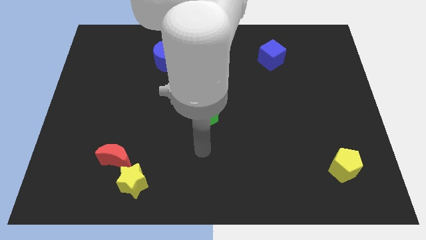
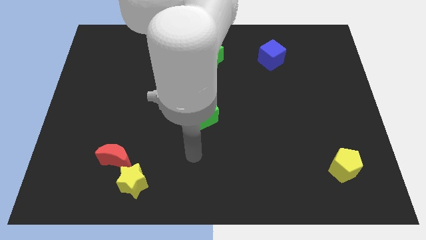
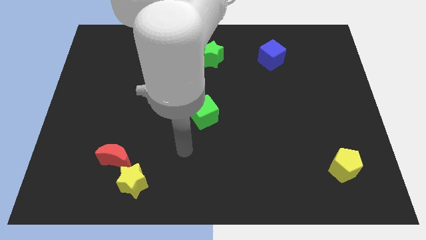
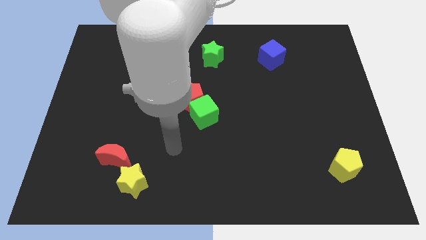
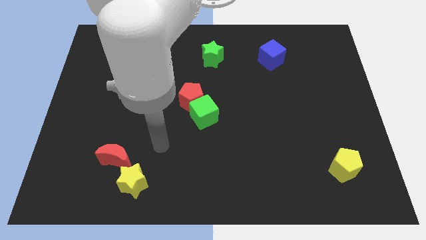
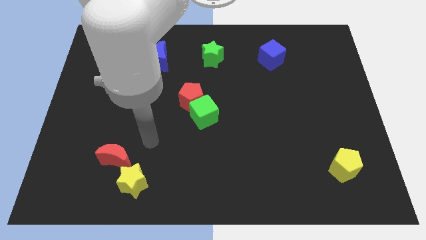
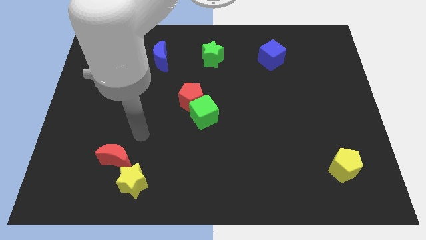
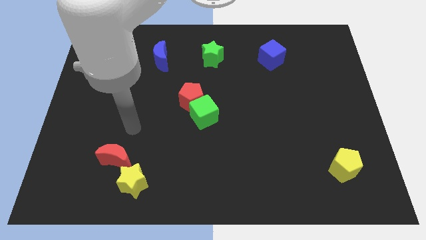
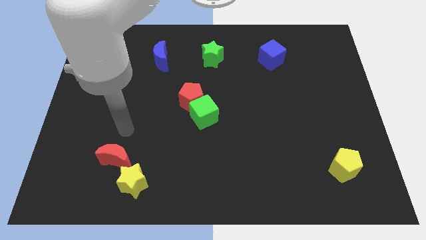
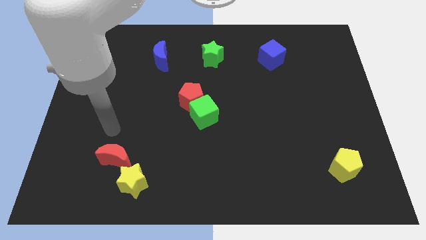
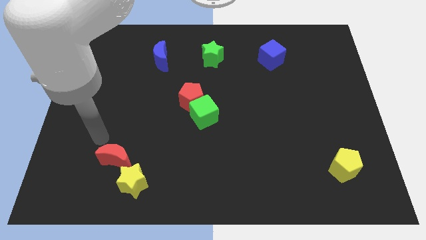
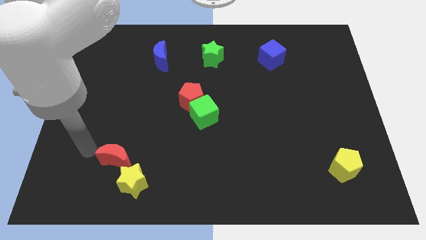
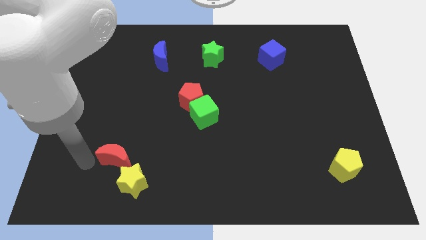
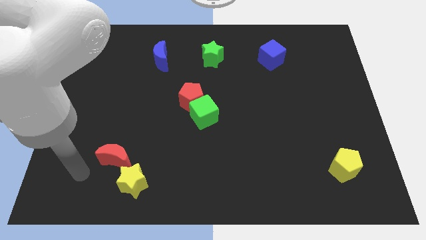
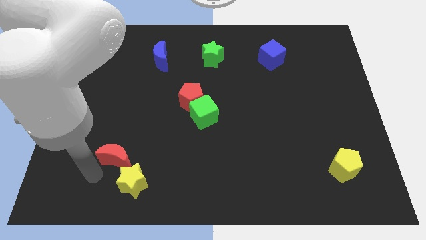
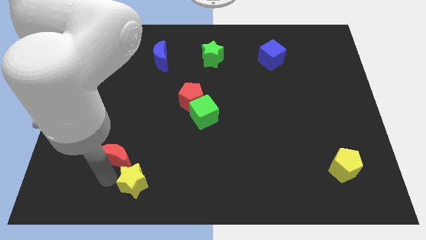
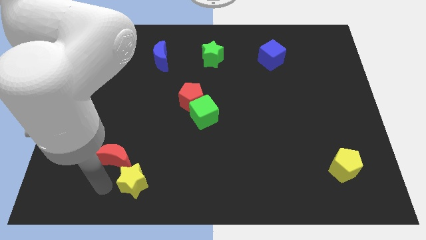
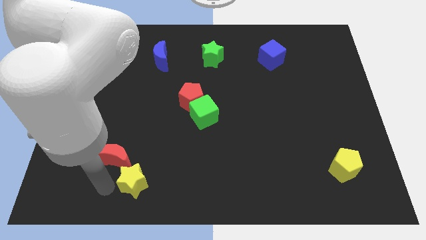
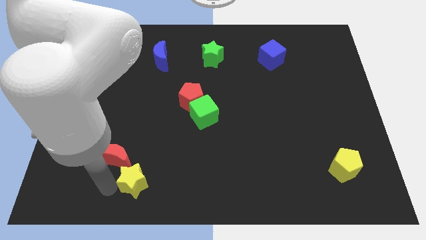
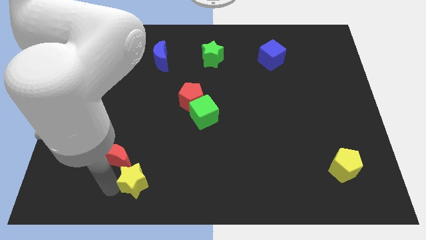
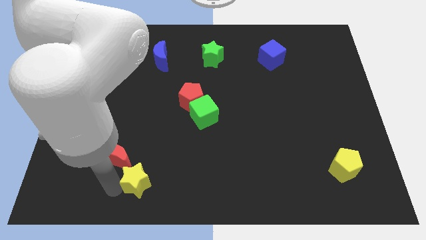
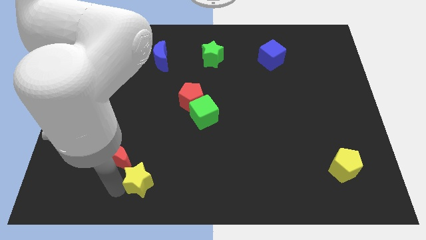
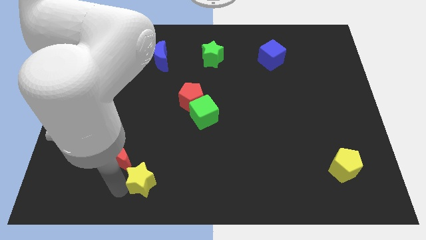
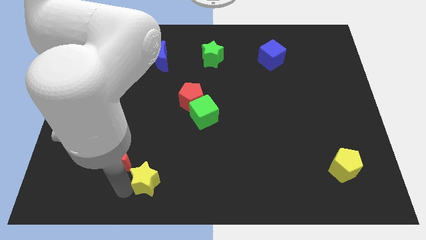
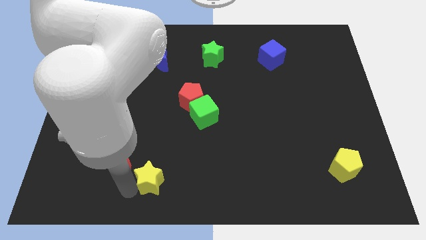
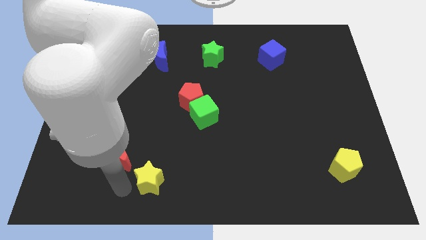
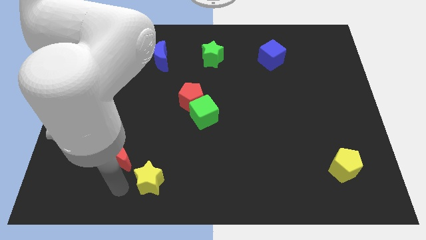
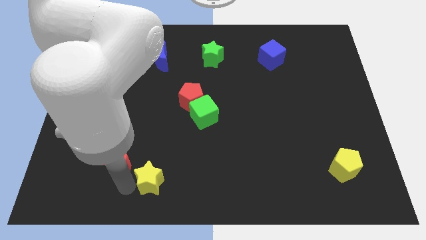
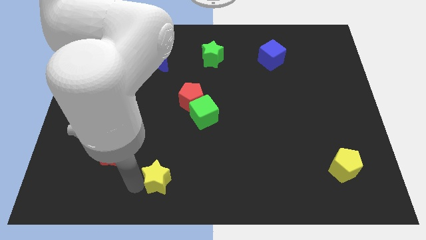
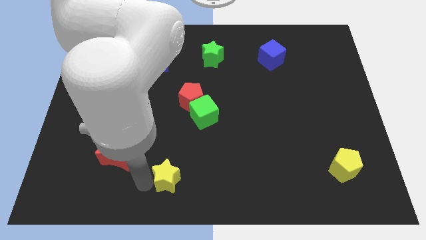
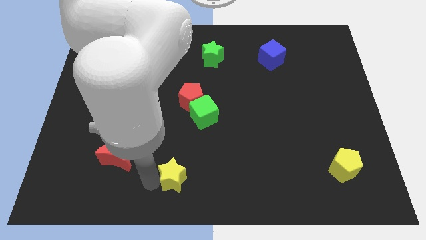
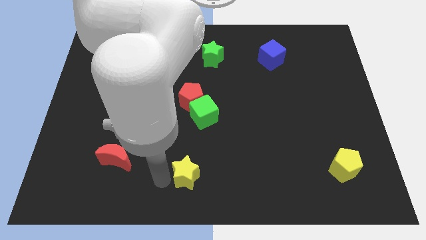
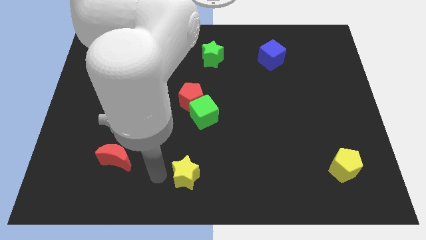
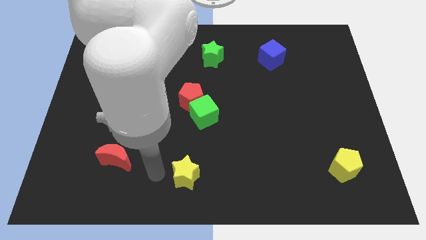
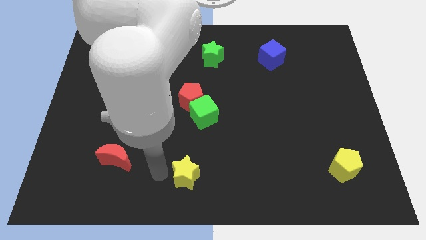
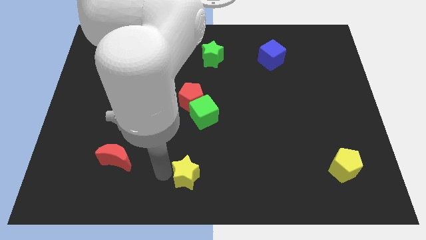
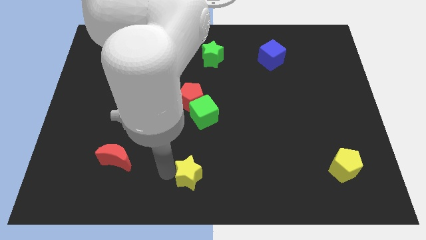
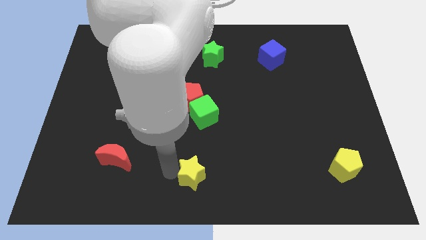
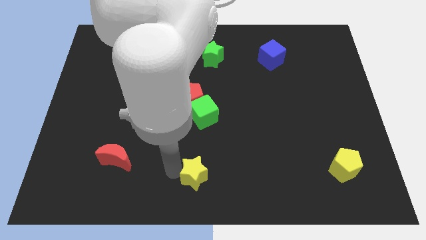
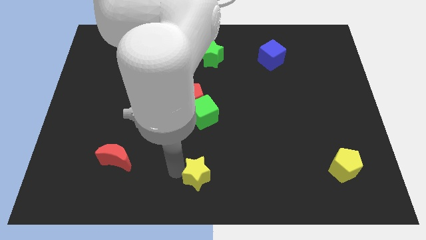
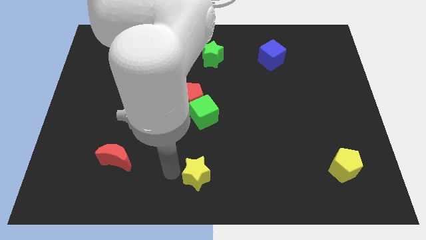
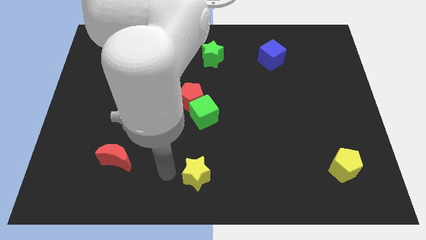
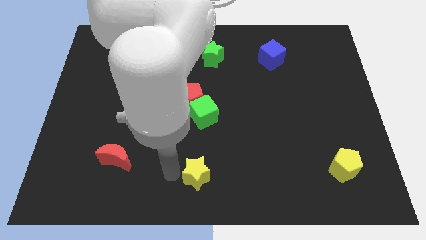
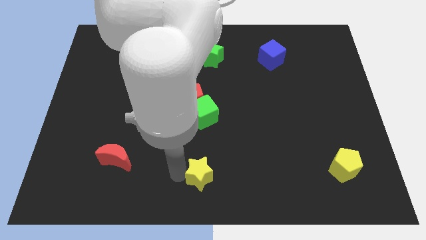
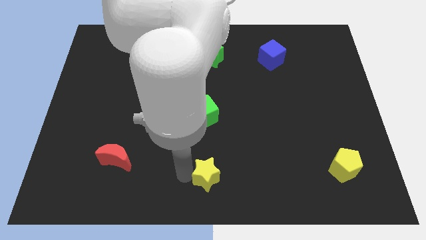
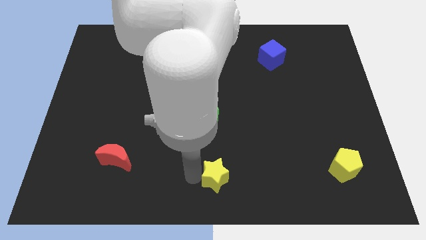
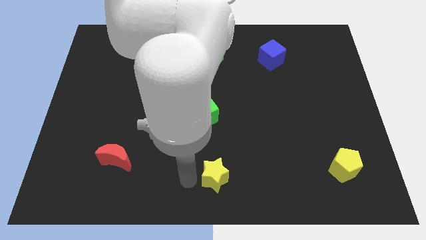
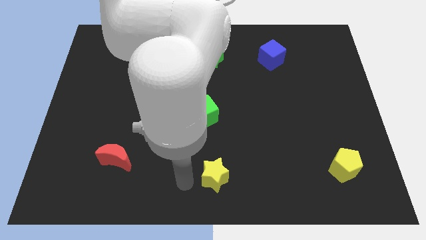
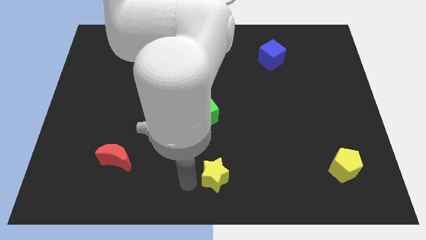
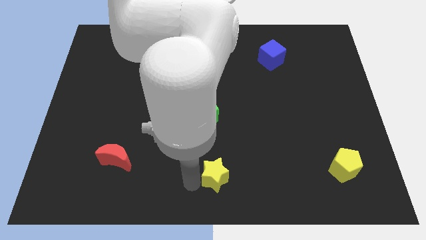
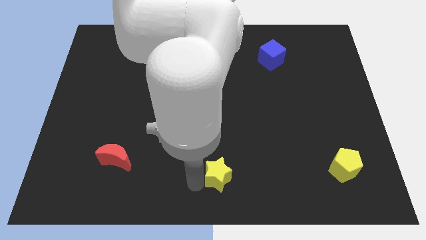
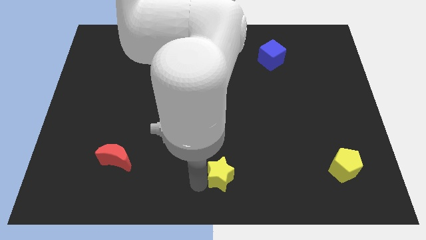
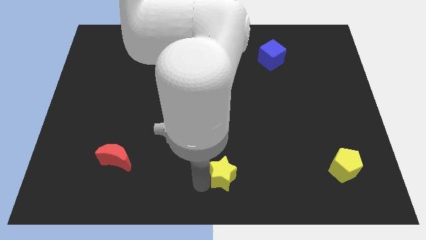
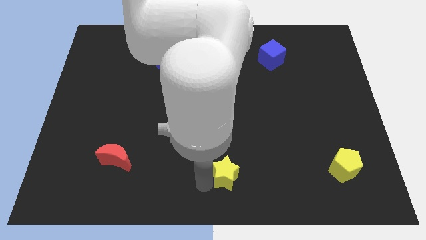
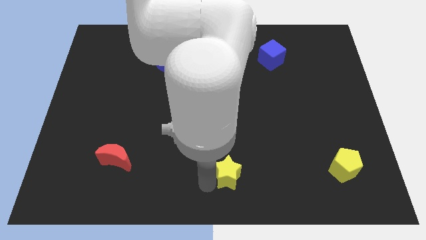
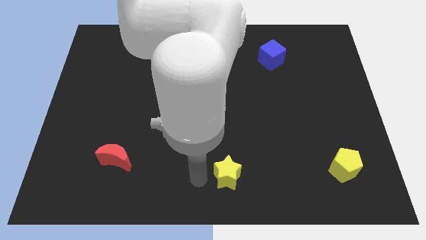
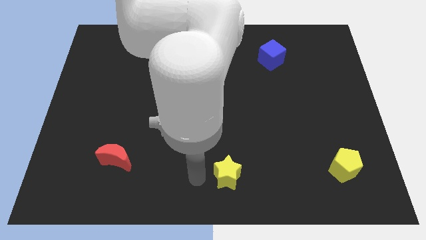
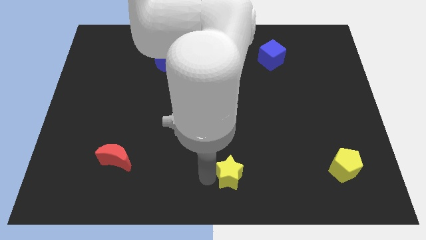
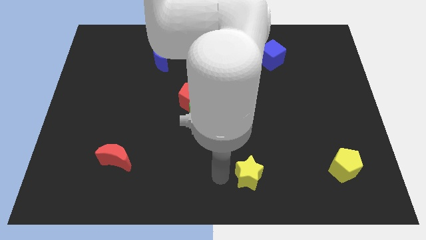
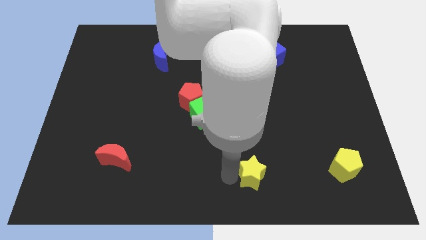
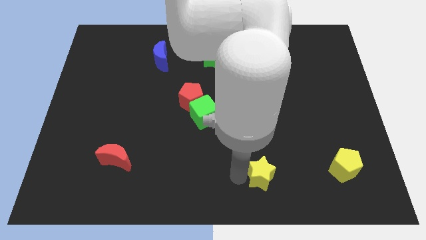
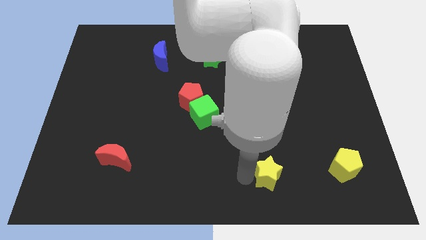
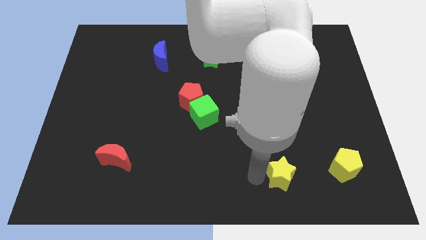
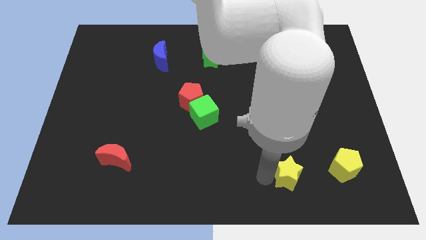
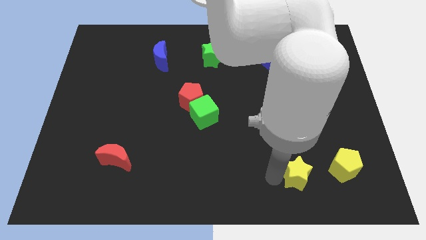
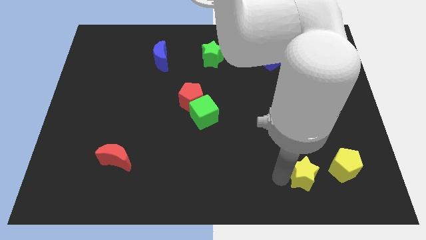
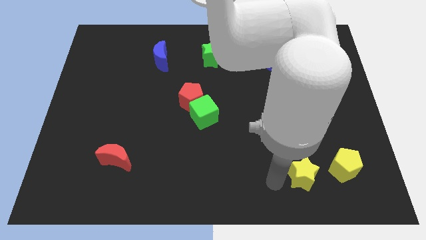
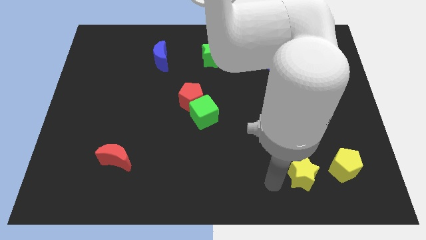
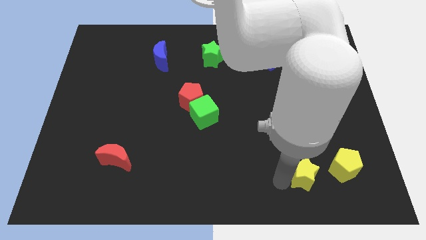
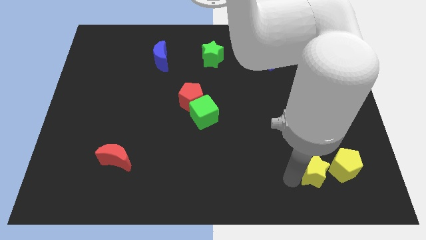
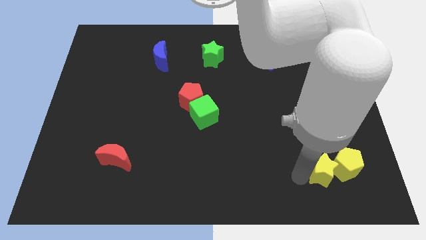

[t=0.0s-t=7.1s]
put the yellow star next to the yellow pentagon
